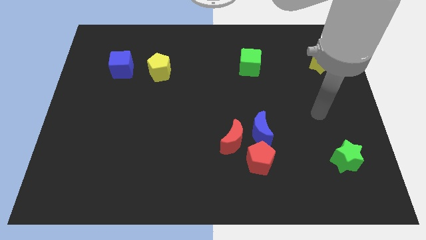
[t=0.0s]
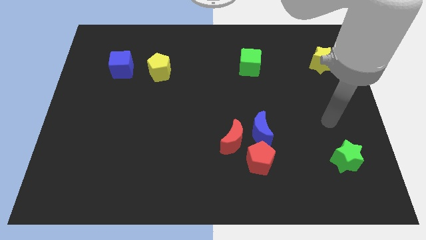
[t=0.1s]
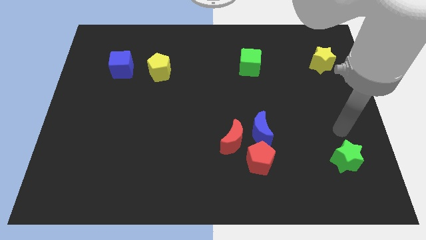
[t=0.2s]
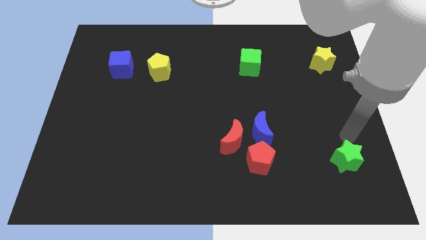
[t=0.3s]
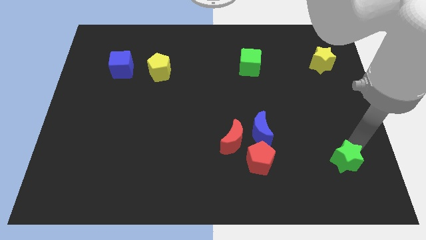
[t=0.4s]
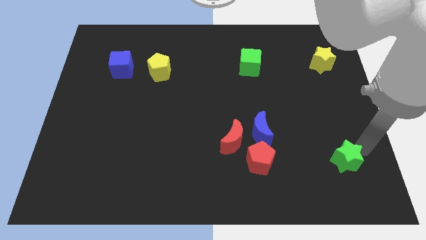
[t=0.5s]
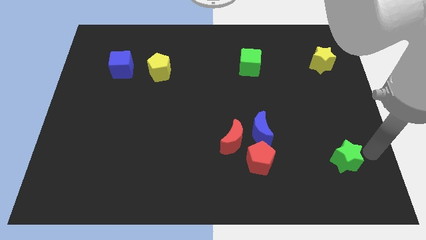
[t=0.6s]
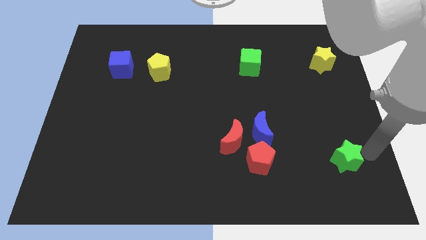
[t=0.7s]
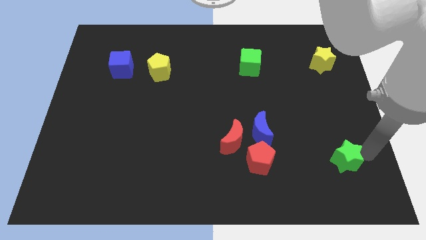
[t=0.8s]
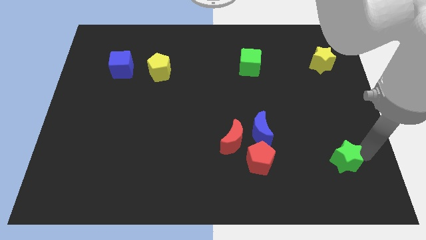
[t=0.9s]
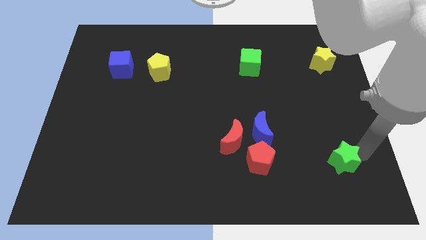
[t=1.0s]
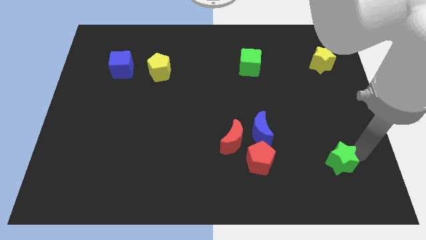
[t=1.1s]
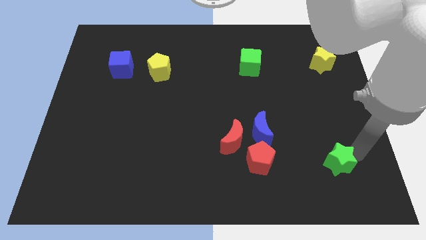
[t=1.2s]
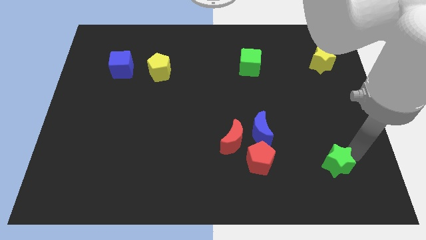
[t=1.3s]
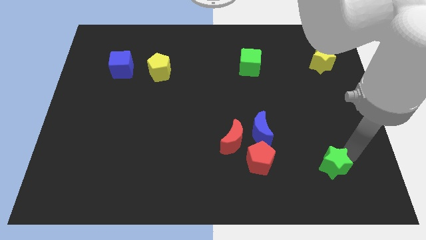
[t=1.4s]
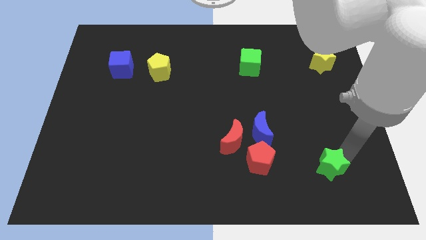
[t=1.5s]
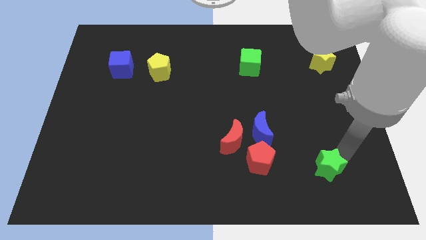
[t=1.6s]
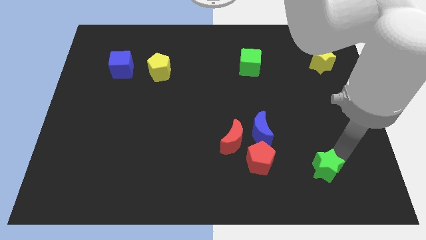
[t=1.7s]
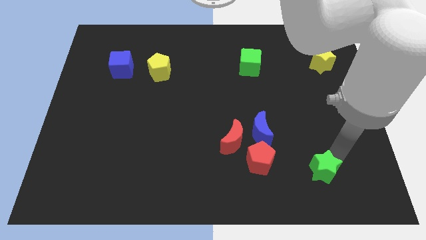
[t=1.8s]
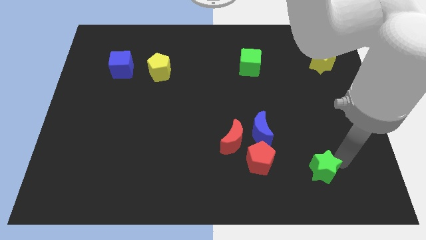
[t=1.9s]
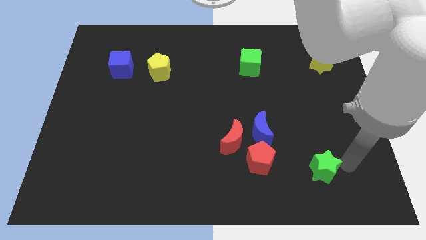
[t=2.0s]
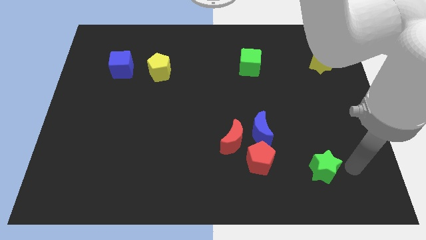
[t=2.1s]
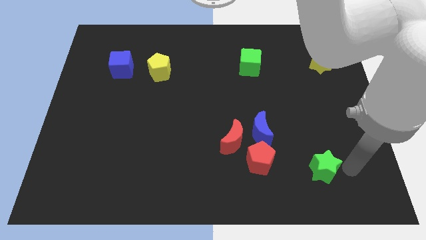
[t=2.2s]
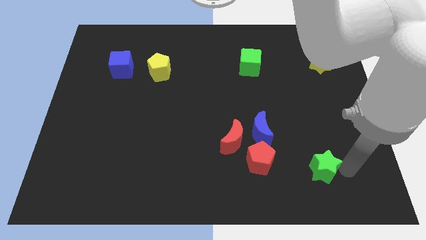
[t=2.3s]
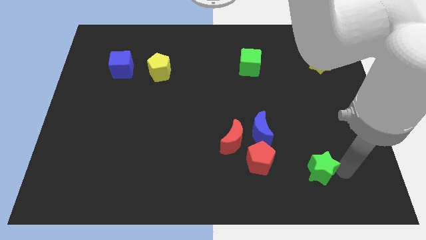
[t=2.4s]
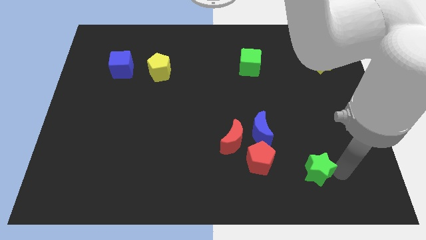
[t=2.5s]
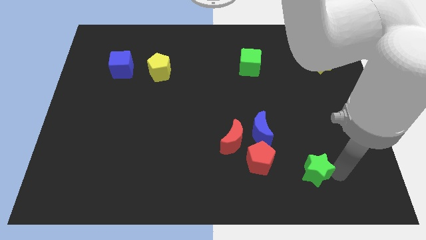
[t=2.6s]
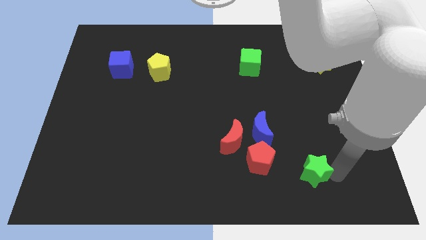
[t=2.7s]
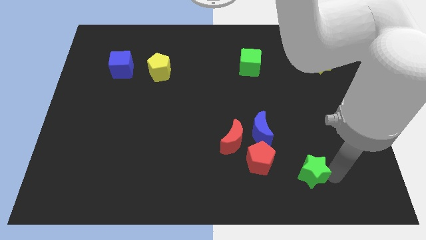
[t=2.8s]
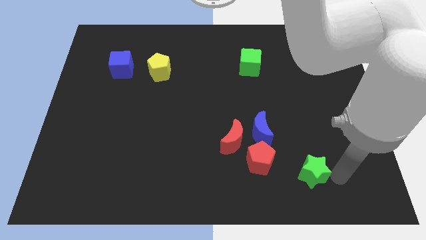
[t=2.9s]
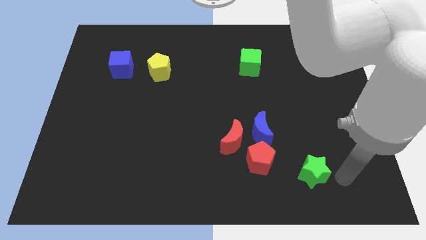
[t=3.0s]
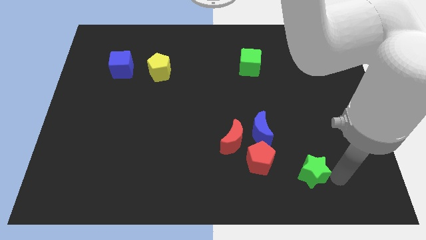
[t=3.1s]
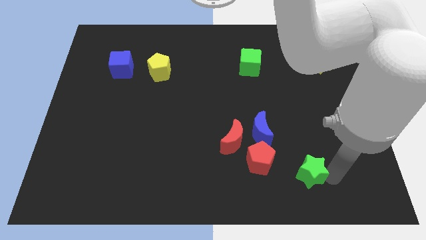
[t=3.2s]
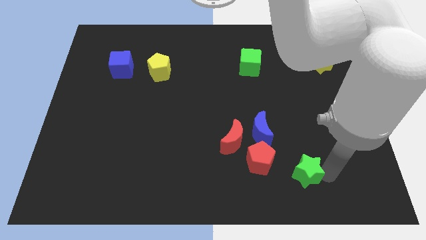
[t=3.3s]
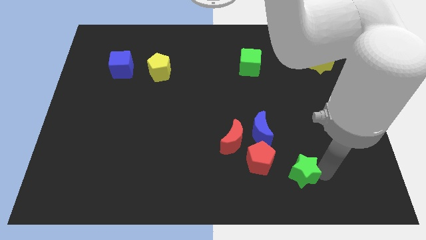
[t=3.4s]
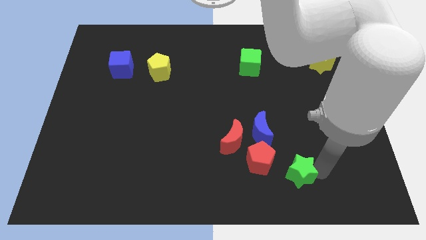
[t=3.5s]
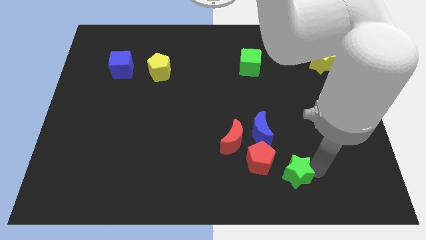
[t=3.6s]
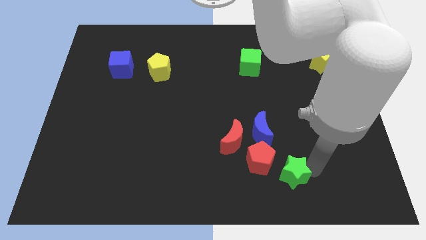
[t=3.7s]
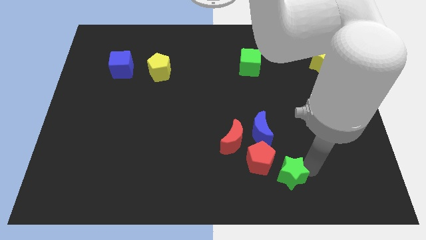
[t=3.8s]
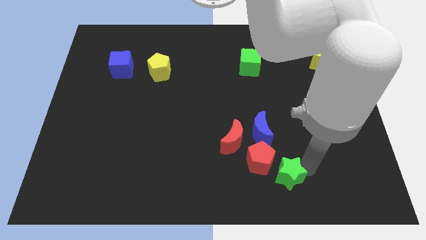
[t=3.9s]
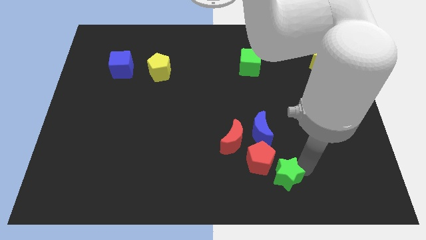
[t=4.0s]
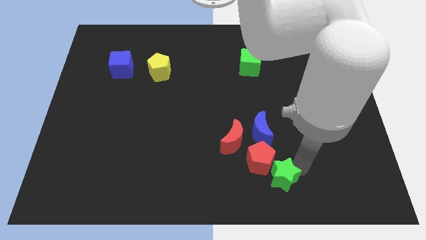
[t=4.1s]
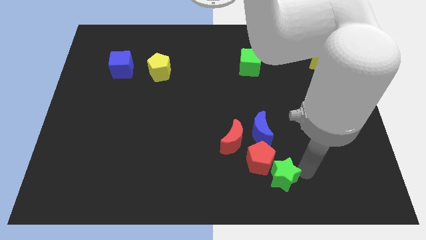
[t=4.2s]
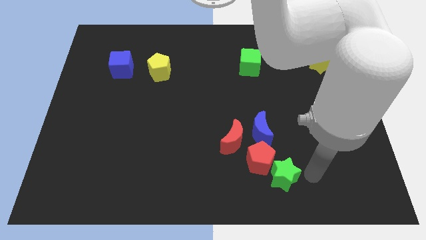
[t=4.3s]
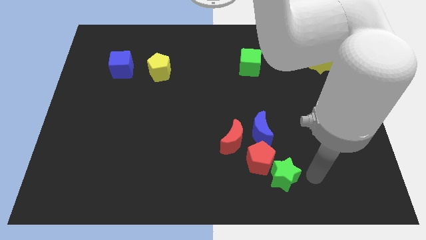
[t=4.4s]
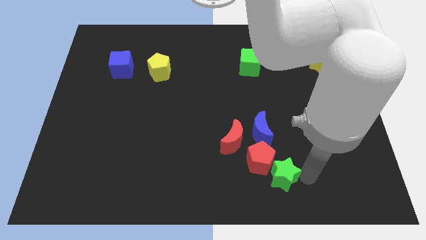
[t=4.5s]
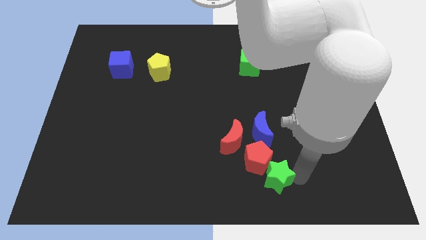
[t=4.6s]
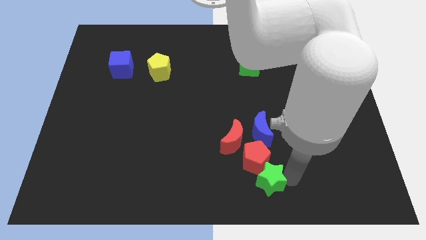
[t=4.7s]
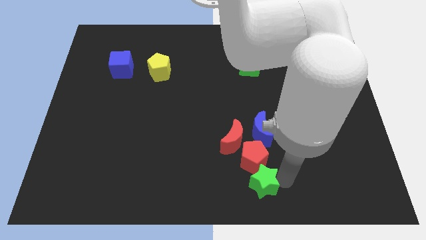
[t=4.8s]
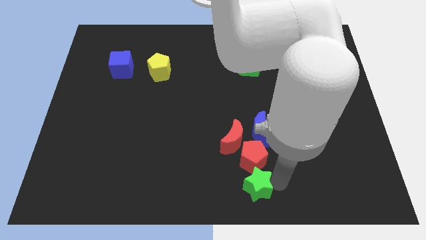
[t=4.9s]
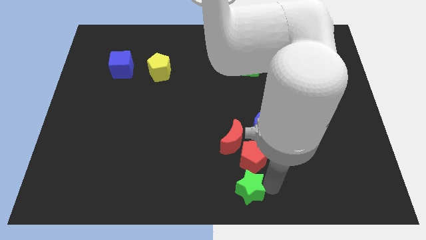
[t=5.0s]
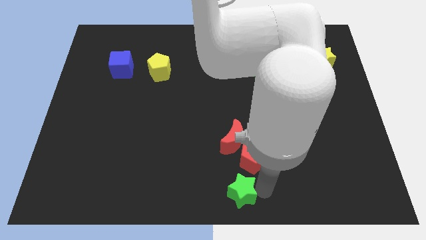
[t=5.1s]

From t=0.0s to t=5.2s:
push the green star left

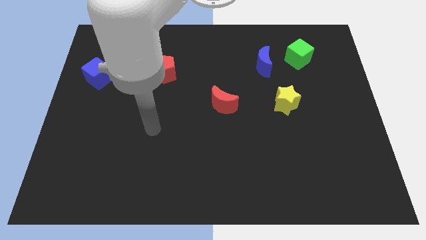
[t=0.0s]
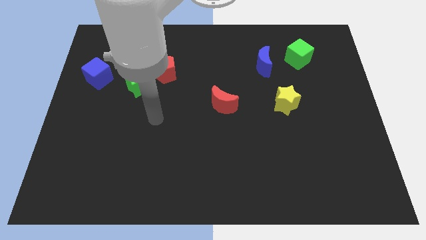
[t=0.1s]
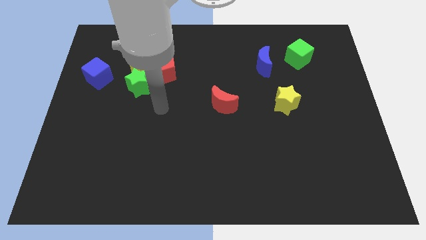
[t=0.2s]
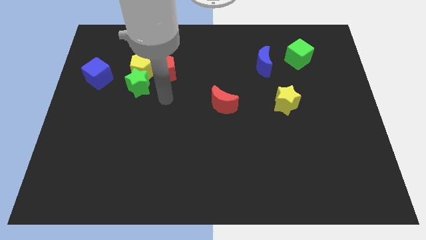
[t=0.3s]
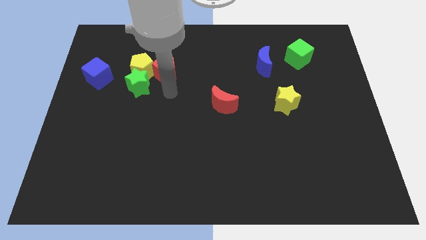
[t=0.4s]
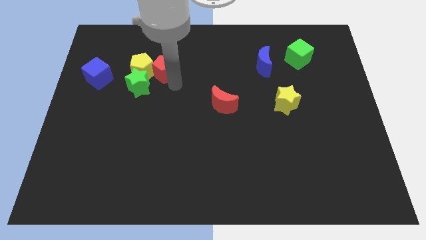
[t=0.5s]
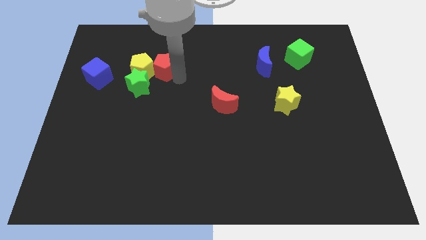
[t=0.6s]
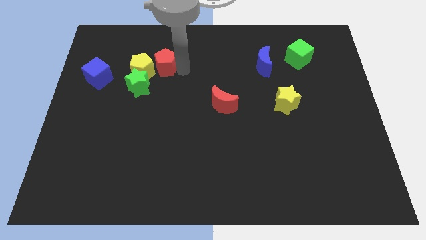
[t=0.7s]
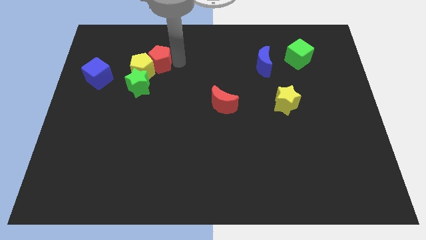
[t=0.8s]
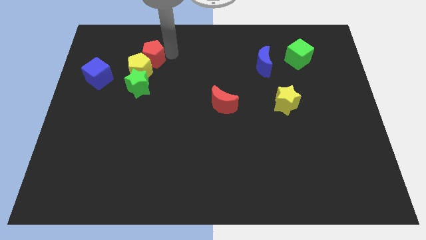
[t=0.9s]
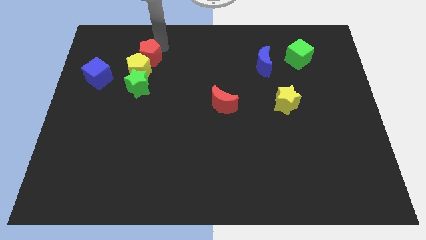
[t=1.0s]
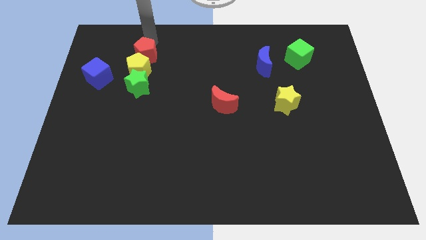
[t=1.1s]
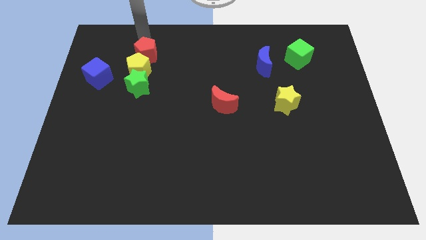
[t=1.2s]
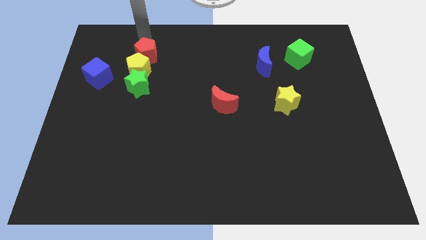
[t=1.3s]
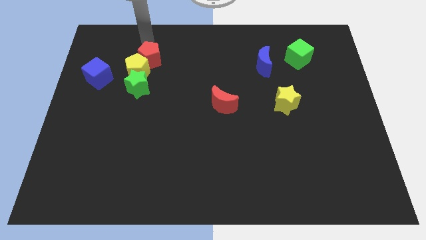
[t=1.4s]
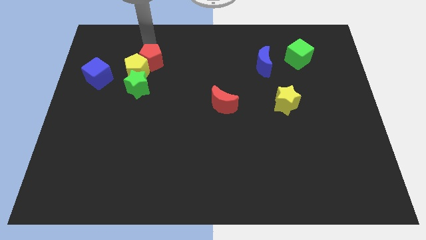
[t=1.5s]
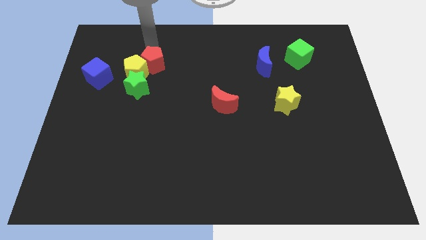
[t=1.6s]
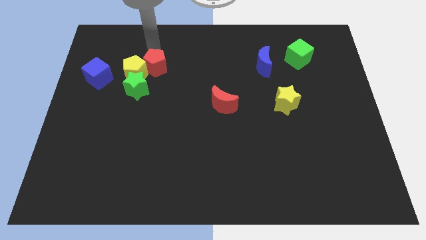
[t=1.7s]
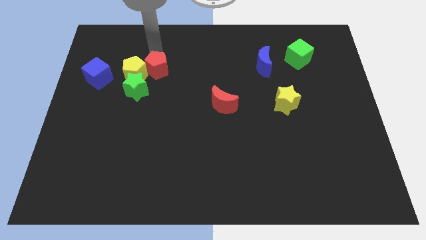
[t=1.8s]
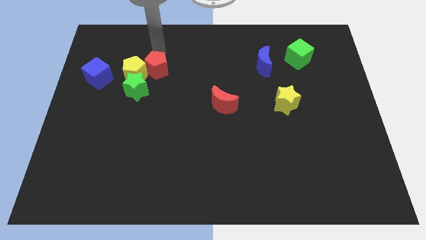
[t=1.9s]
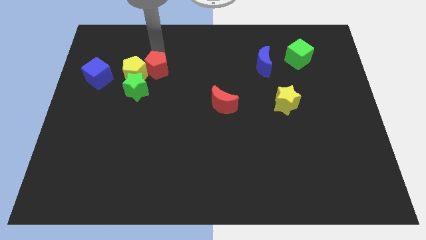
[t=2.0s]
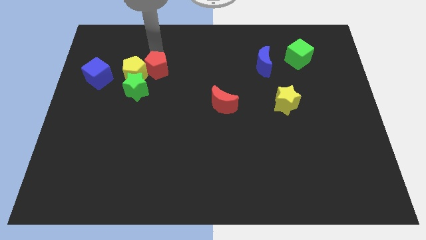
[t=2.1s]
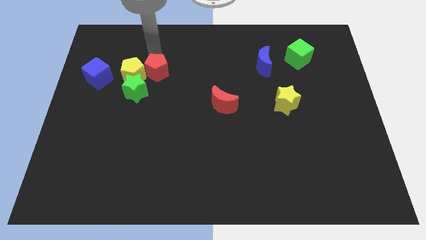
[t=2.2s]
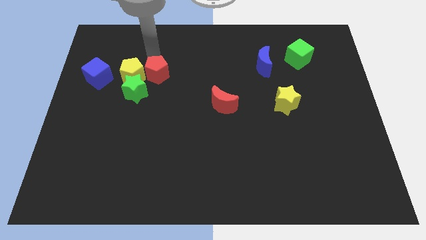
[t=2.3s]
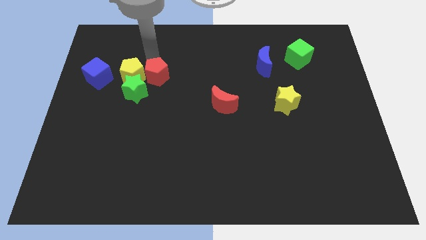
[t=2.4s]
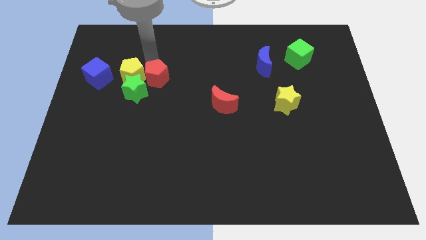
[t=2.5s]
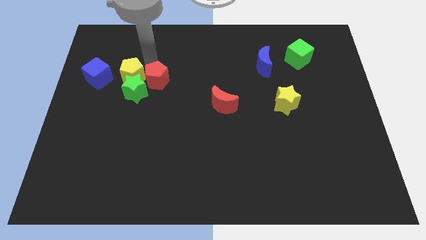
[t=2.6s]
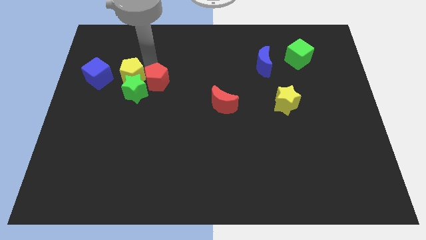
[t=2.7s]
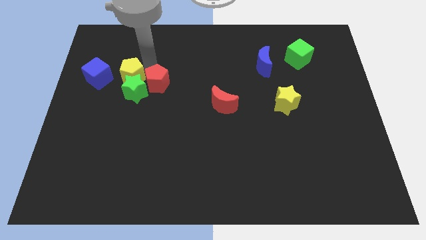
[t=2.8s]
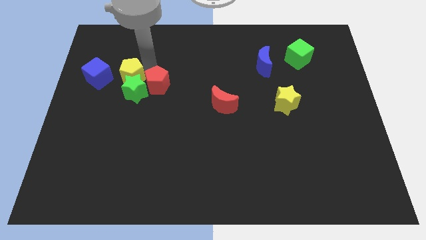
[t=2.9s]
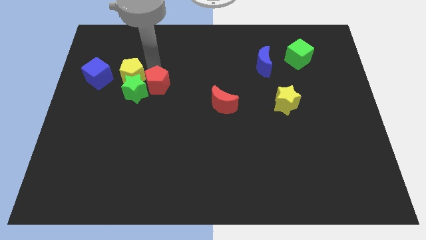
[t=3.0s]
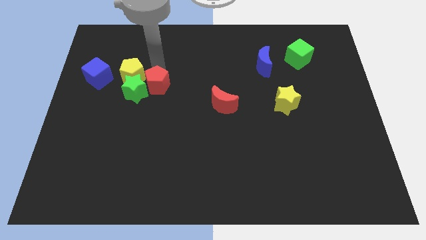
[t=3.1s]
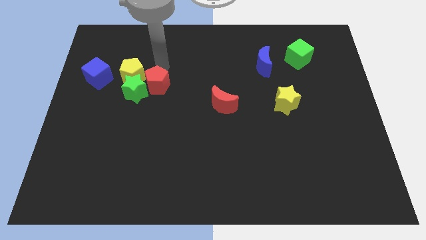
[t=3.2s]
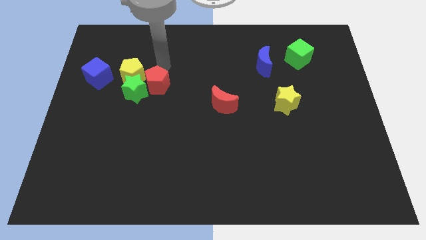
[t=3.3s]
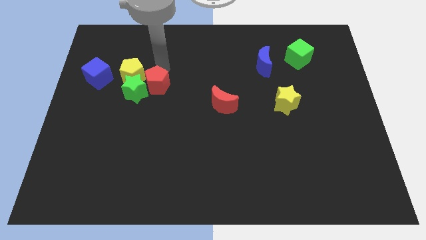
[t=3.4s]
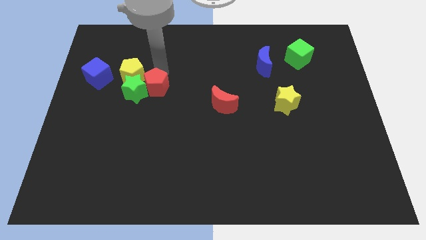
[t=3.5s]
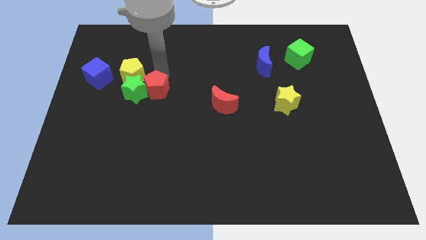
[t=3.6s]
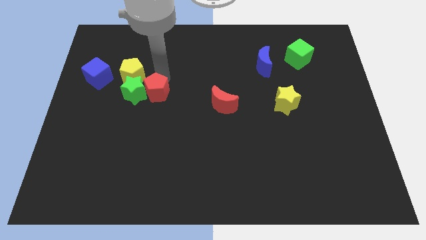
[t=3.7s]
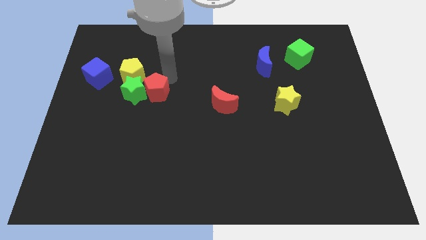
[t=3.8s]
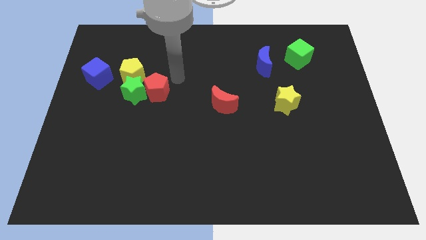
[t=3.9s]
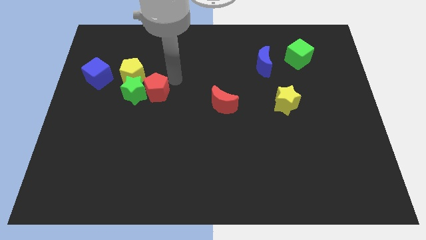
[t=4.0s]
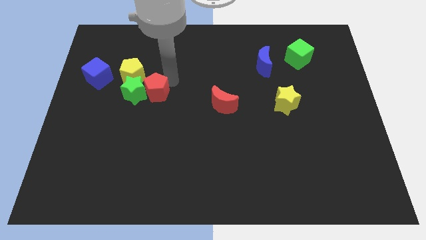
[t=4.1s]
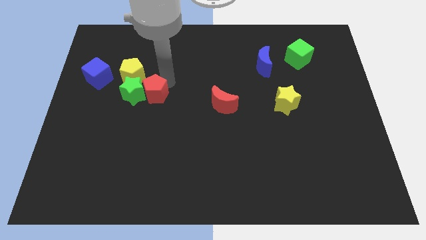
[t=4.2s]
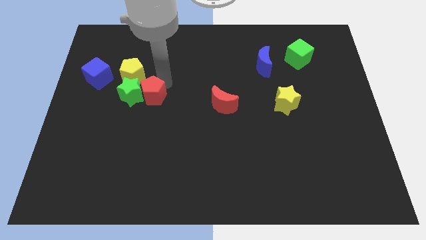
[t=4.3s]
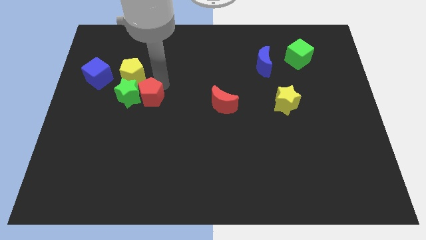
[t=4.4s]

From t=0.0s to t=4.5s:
push the red pentagon a little bit diagonally down and to the left
